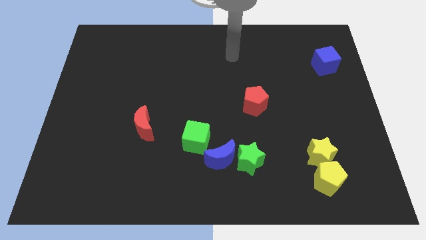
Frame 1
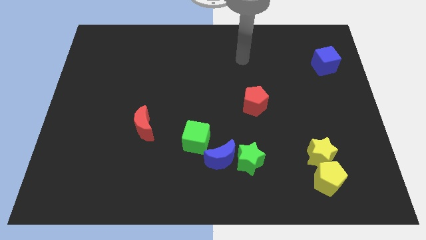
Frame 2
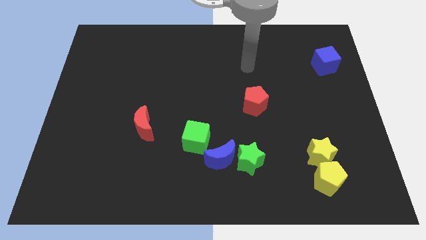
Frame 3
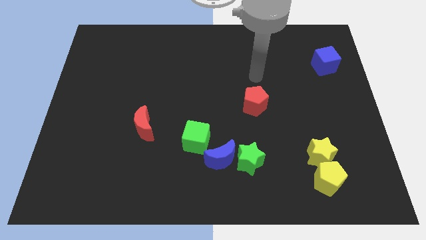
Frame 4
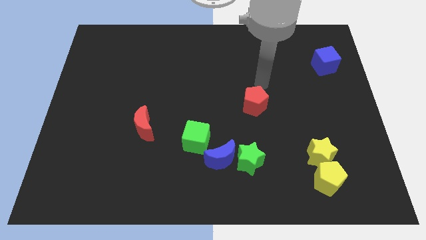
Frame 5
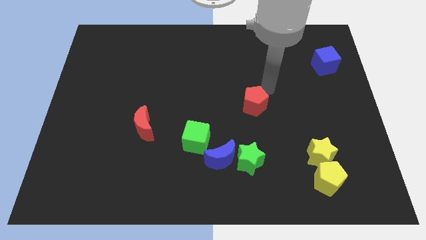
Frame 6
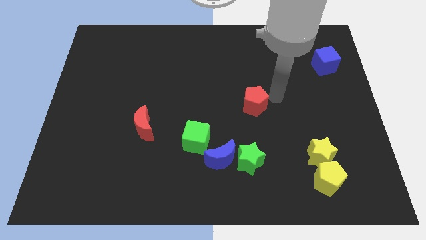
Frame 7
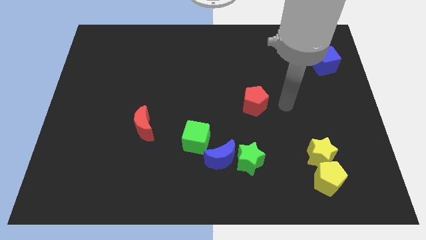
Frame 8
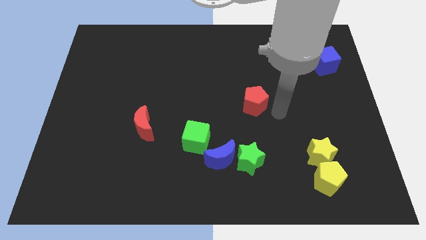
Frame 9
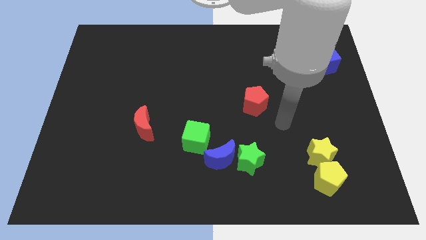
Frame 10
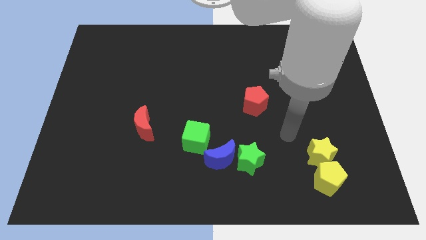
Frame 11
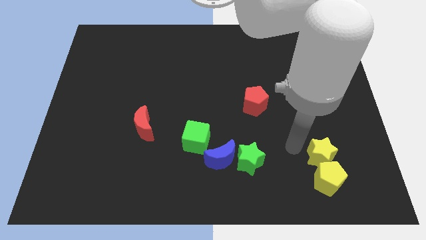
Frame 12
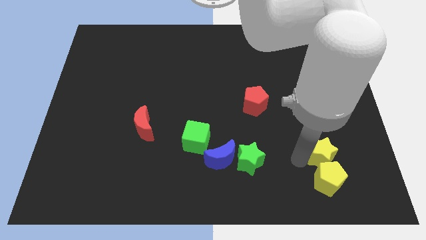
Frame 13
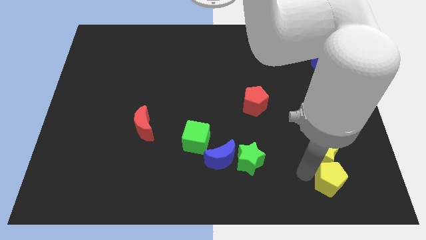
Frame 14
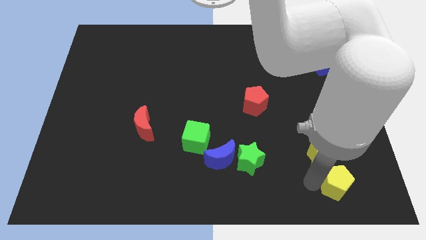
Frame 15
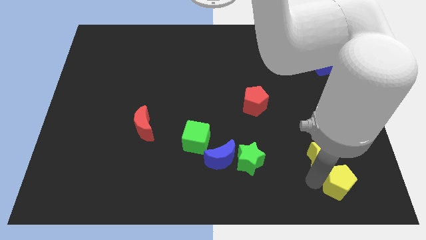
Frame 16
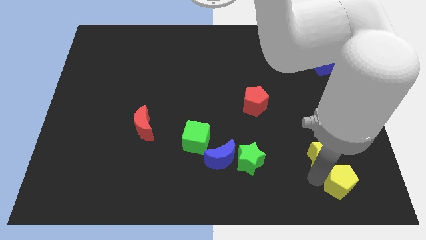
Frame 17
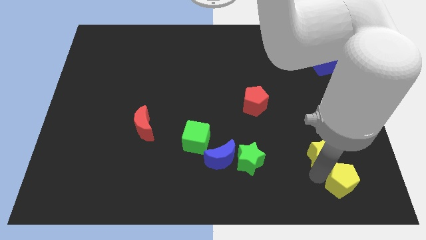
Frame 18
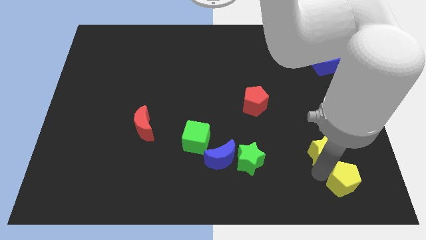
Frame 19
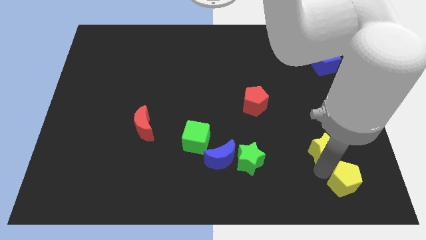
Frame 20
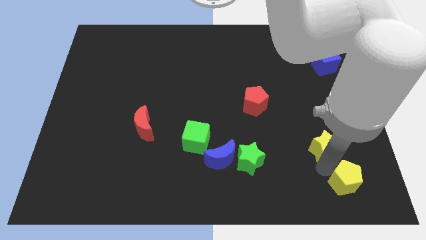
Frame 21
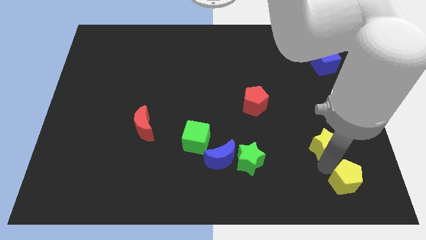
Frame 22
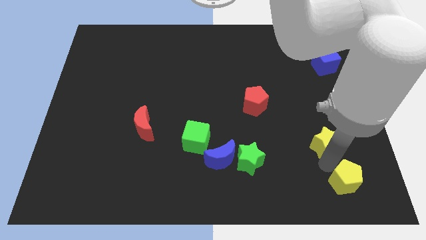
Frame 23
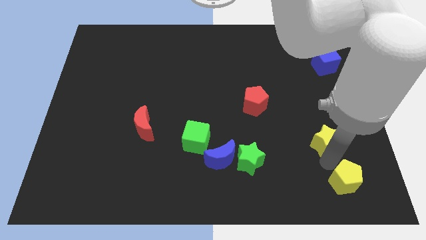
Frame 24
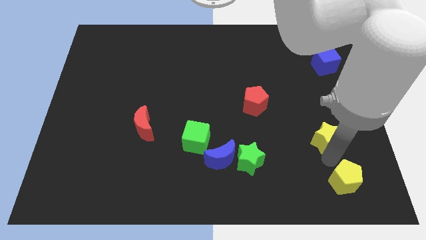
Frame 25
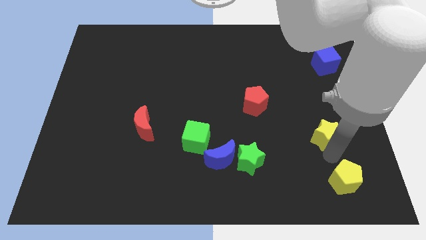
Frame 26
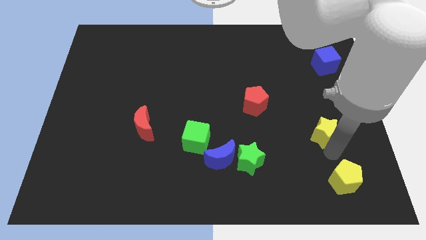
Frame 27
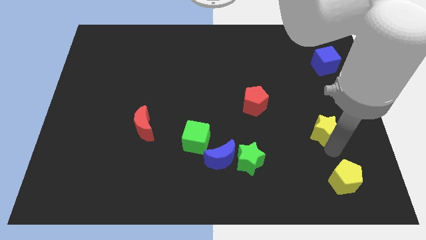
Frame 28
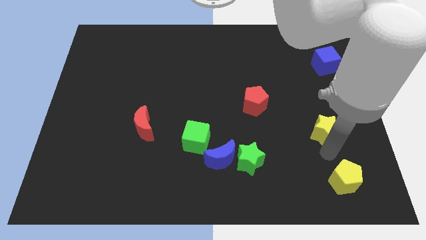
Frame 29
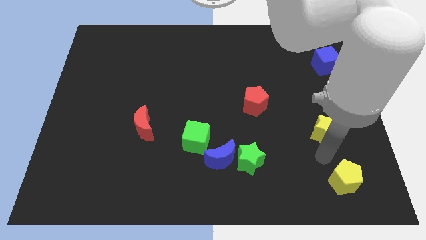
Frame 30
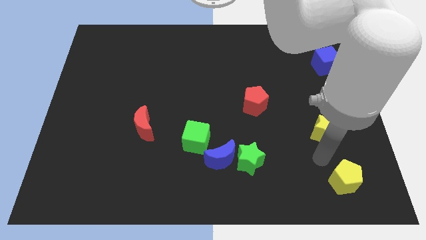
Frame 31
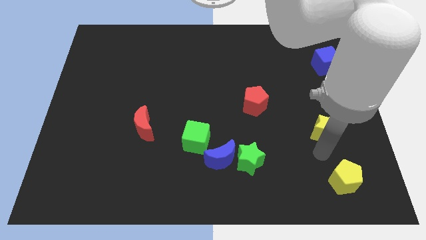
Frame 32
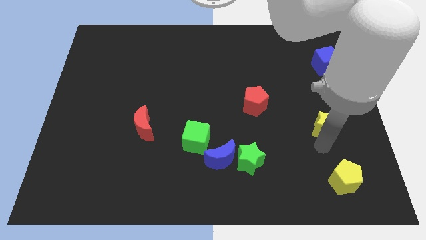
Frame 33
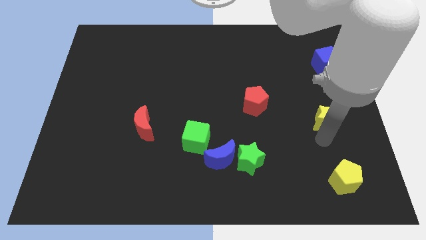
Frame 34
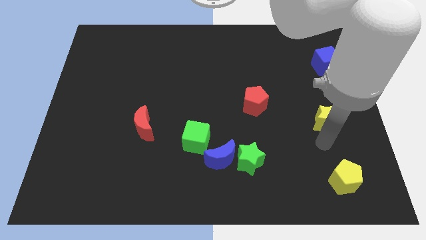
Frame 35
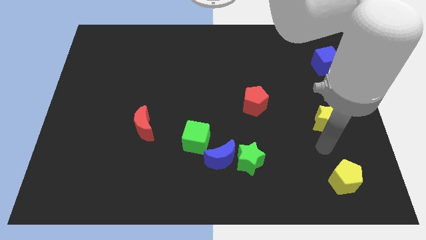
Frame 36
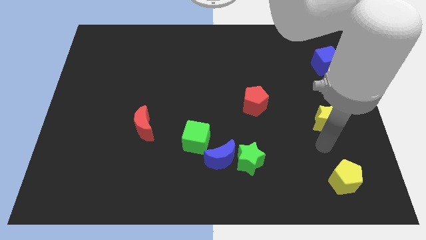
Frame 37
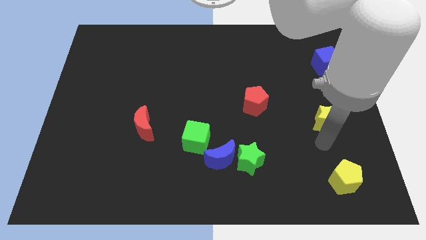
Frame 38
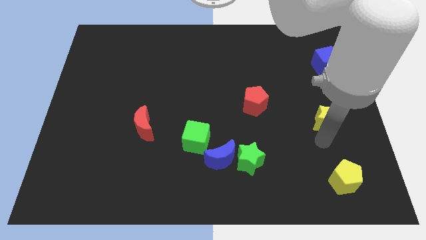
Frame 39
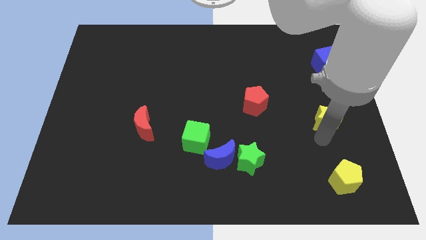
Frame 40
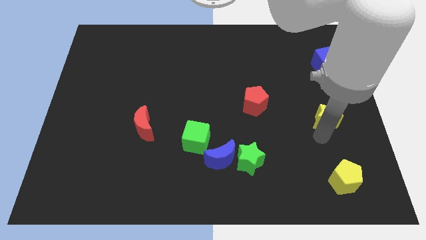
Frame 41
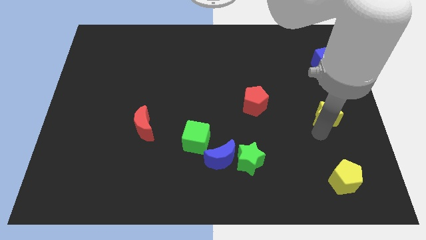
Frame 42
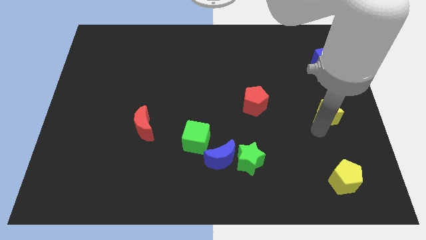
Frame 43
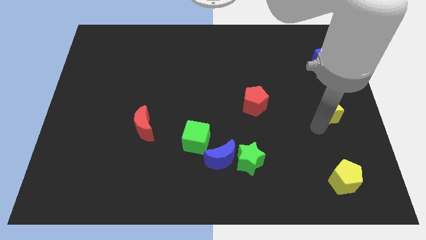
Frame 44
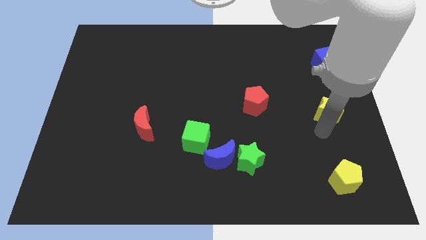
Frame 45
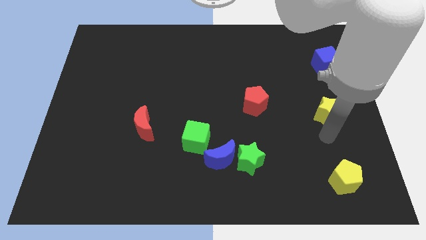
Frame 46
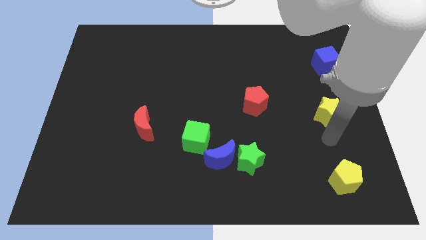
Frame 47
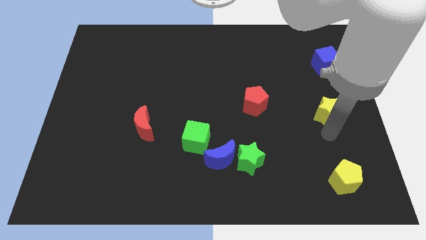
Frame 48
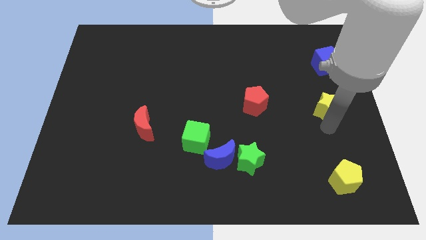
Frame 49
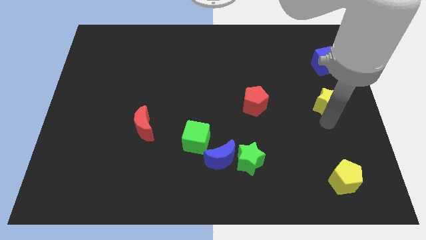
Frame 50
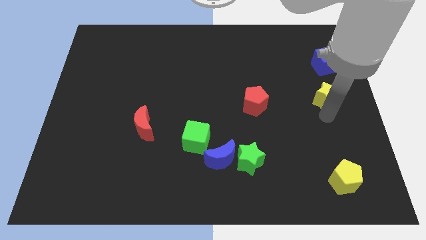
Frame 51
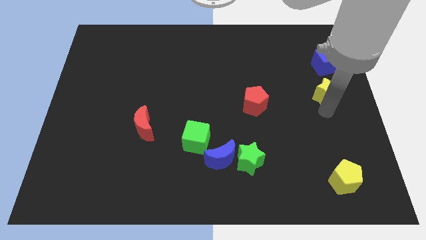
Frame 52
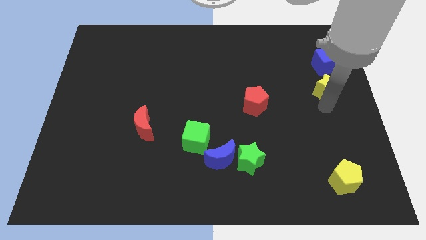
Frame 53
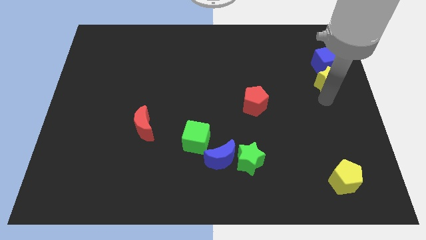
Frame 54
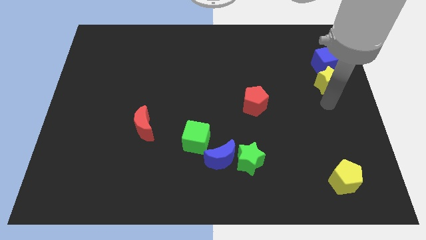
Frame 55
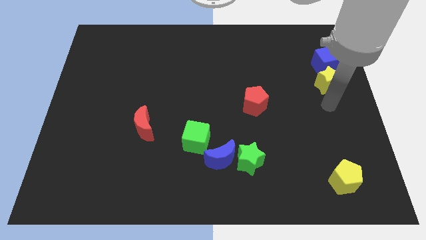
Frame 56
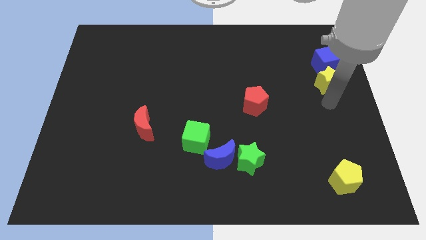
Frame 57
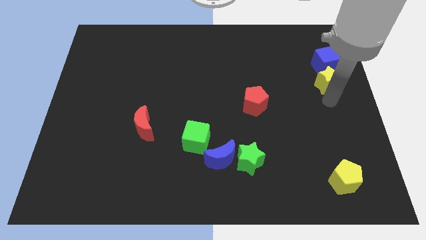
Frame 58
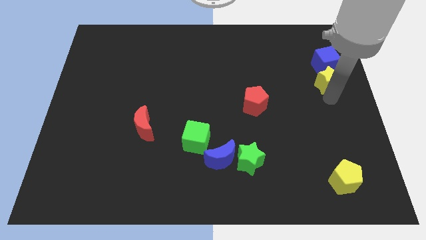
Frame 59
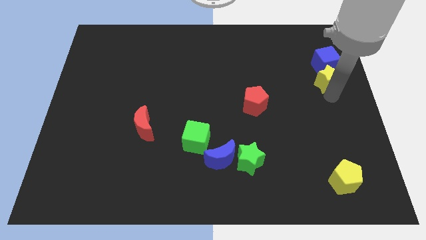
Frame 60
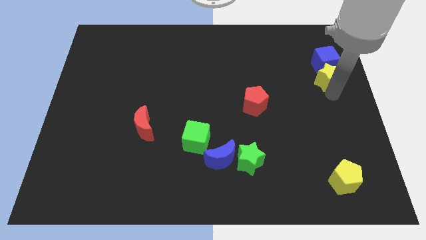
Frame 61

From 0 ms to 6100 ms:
push the yellow star close to the blue cube

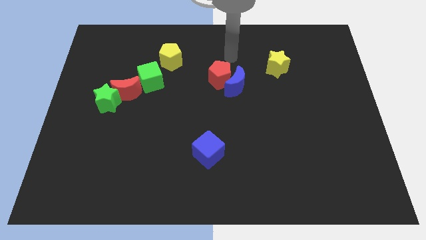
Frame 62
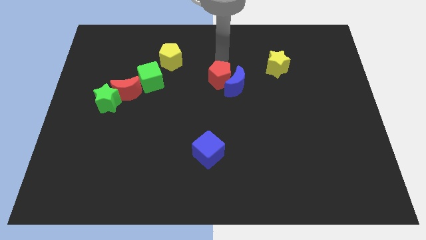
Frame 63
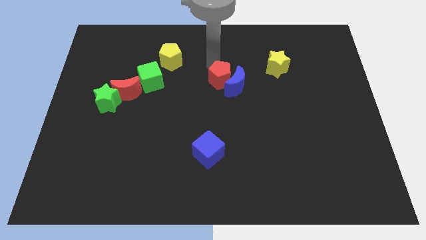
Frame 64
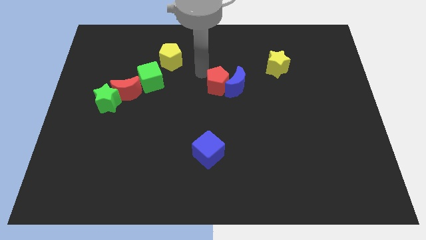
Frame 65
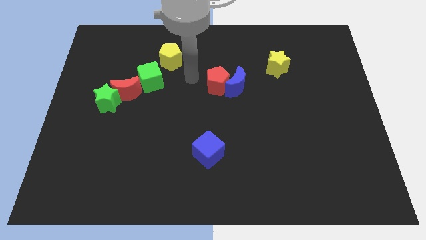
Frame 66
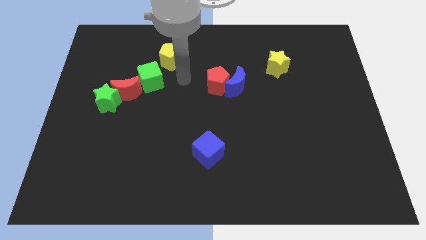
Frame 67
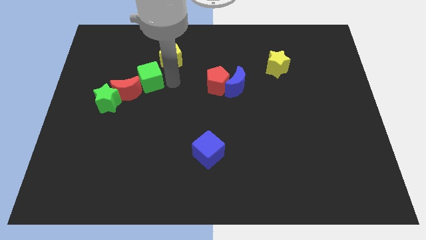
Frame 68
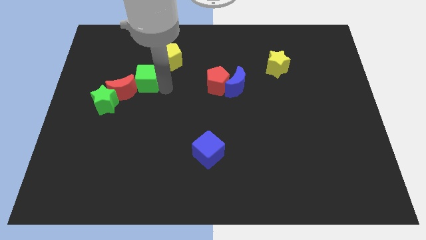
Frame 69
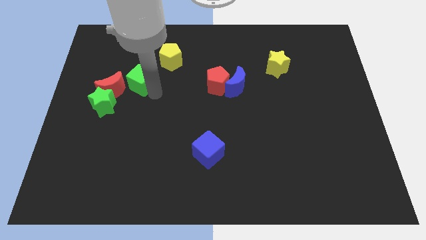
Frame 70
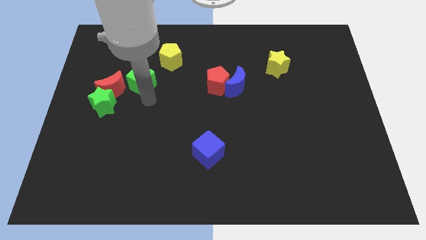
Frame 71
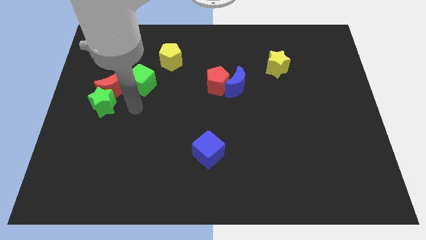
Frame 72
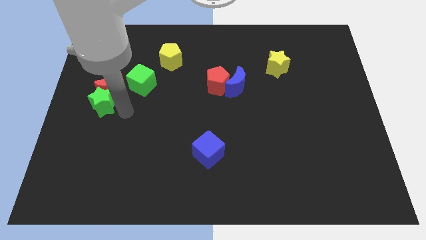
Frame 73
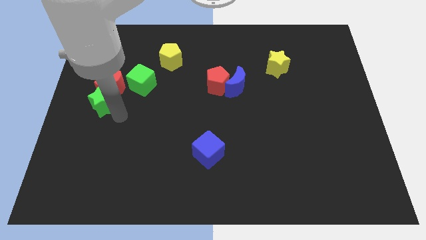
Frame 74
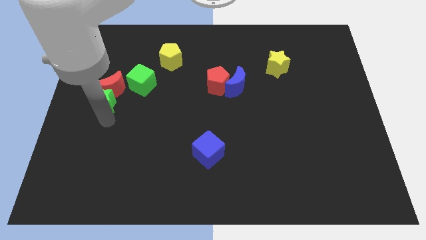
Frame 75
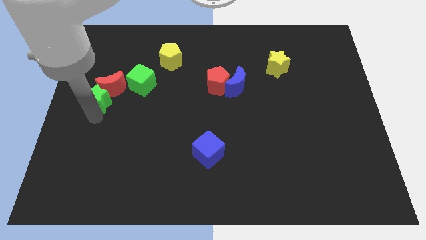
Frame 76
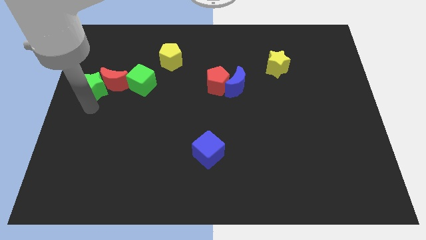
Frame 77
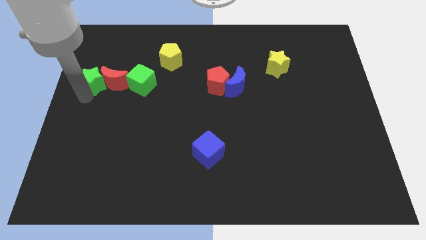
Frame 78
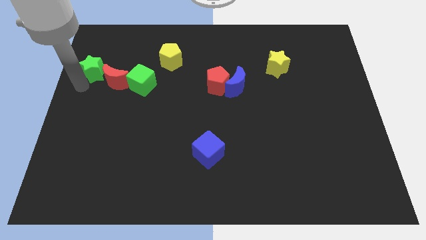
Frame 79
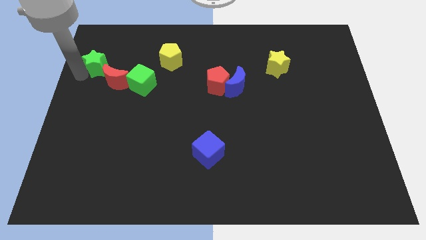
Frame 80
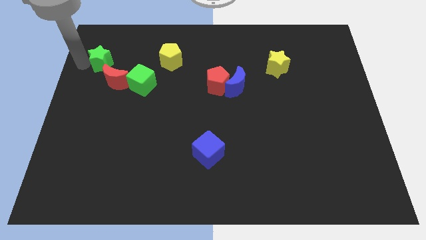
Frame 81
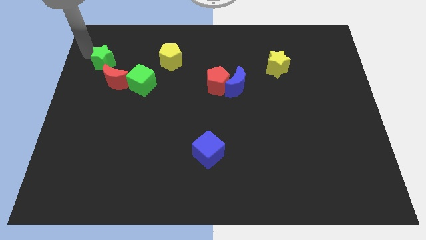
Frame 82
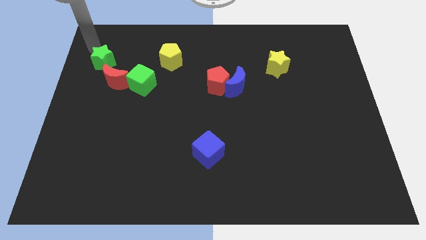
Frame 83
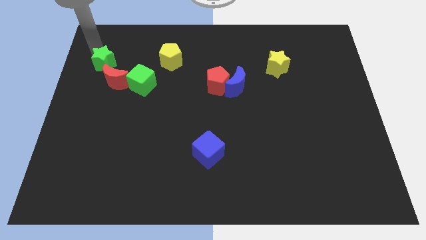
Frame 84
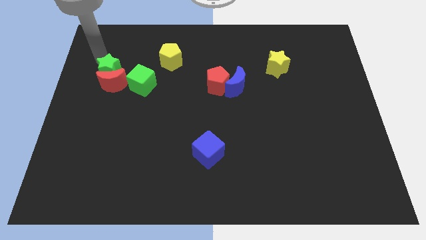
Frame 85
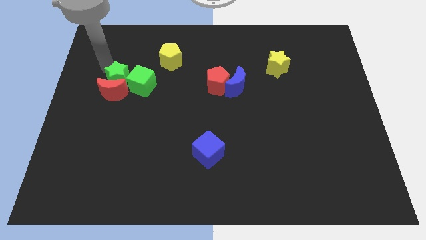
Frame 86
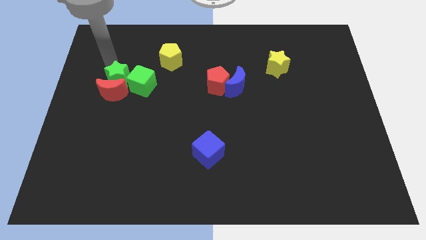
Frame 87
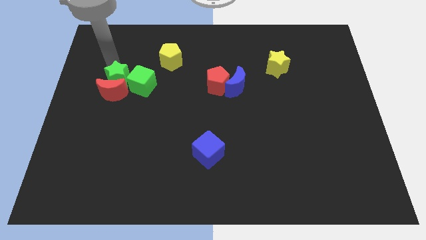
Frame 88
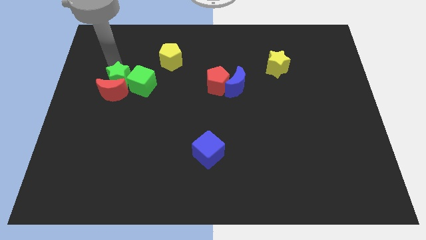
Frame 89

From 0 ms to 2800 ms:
push the green star close to the green cube
